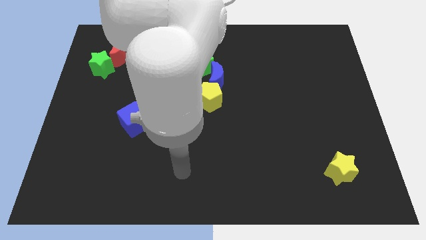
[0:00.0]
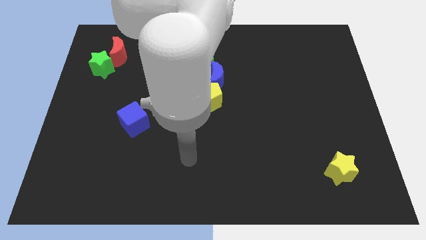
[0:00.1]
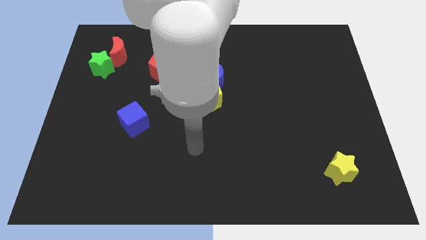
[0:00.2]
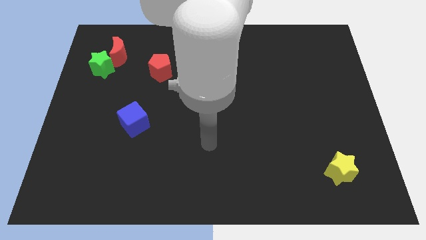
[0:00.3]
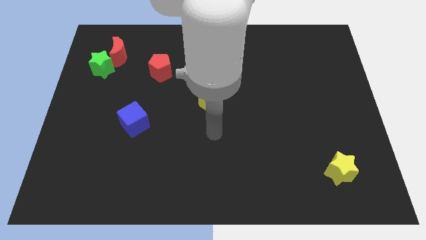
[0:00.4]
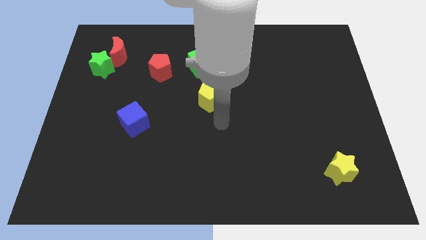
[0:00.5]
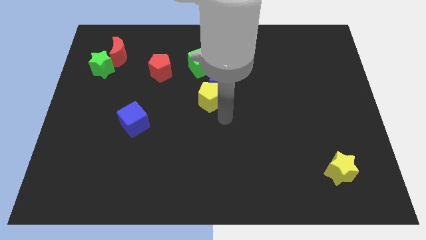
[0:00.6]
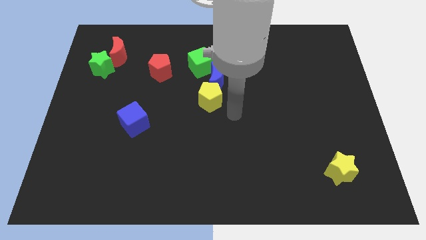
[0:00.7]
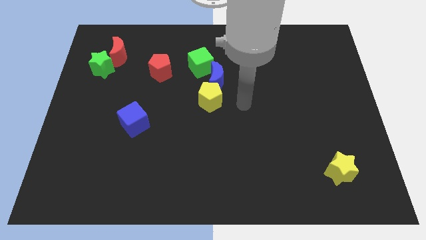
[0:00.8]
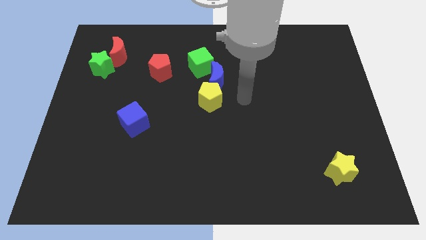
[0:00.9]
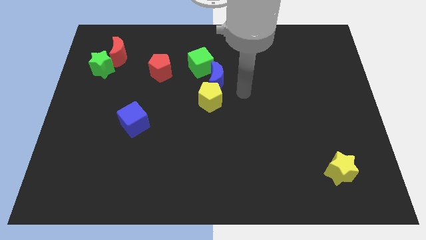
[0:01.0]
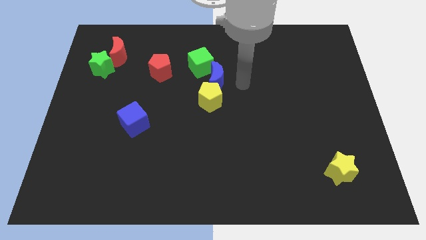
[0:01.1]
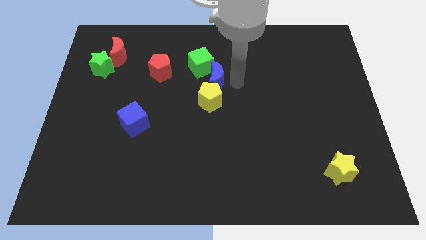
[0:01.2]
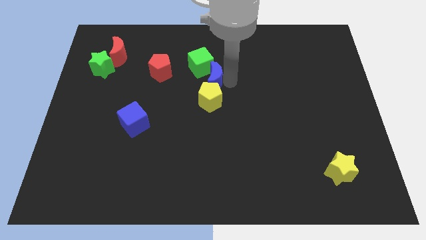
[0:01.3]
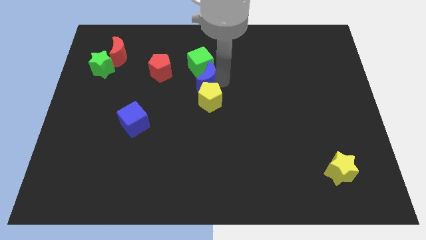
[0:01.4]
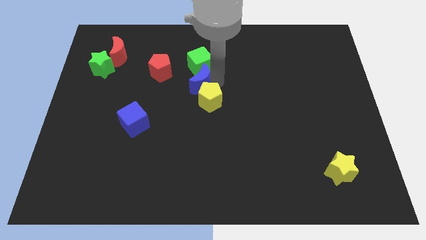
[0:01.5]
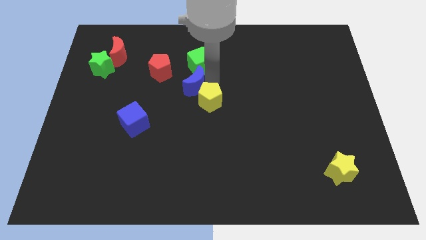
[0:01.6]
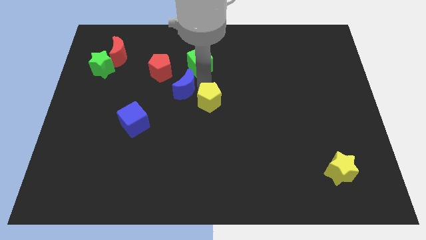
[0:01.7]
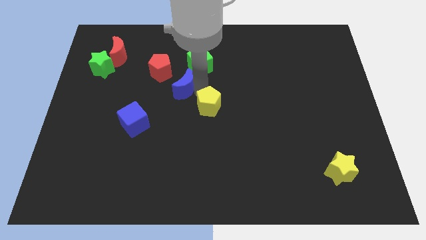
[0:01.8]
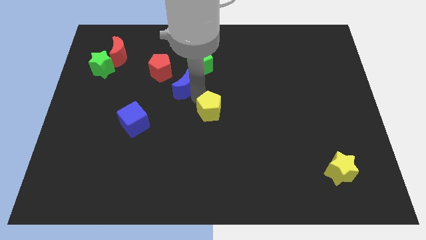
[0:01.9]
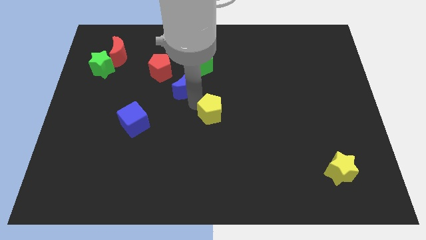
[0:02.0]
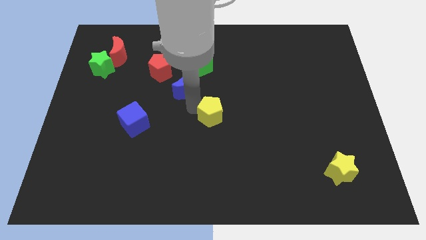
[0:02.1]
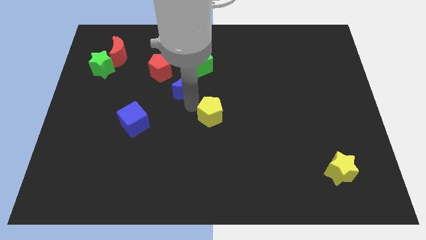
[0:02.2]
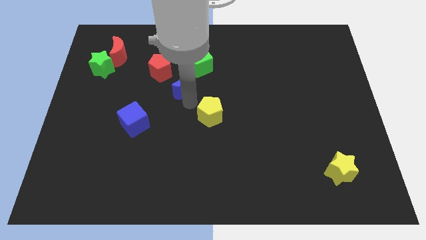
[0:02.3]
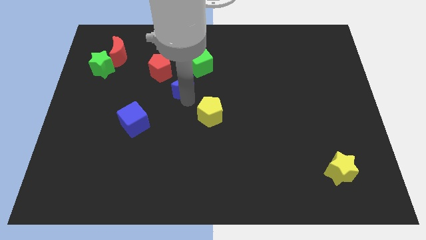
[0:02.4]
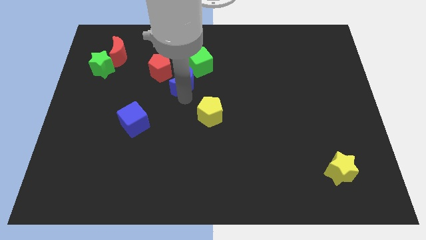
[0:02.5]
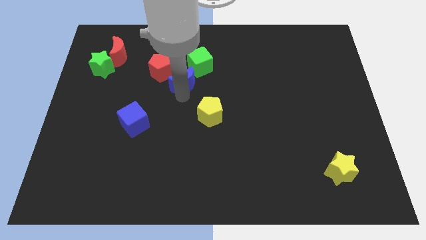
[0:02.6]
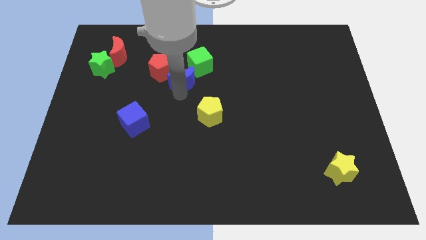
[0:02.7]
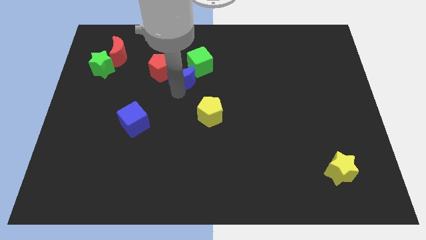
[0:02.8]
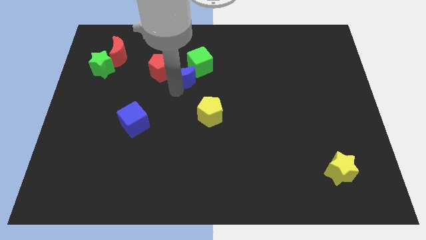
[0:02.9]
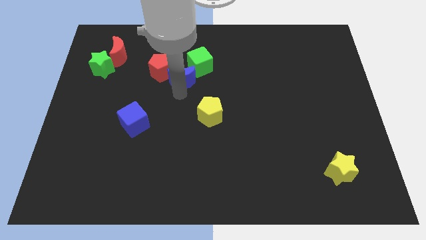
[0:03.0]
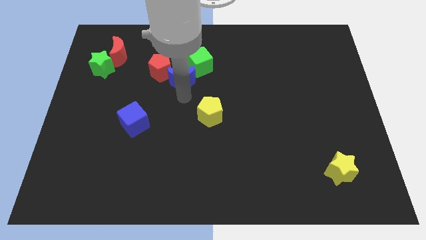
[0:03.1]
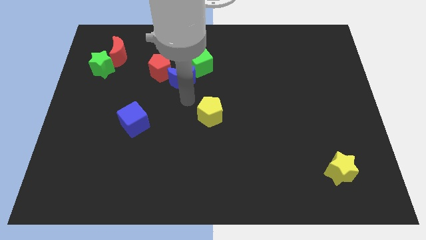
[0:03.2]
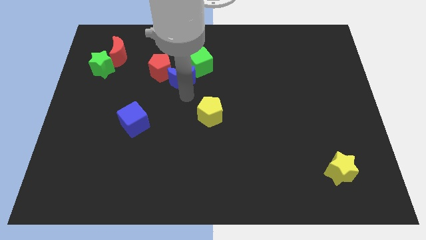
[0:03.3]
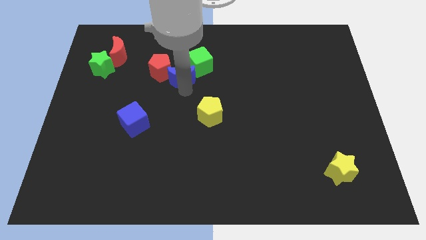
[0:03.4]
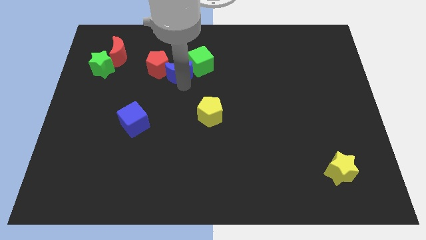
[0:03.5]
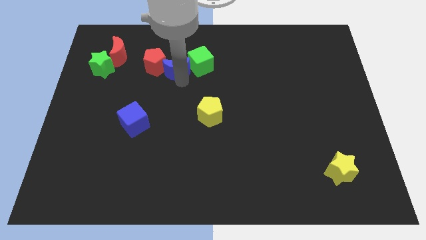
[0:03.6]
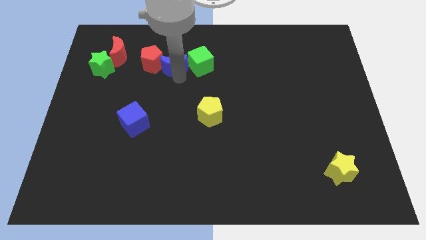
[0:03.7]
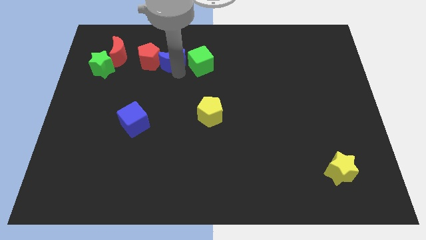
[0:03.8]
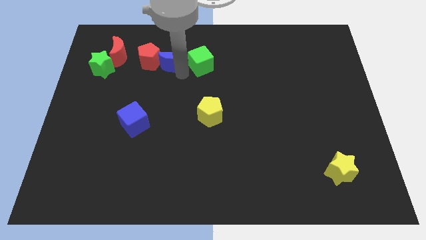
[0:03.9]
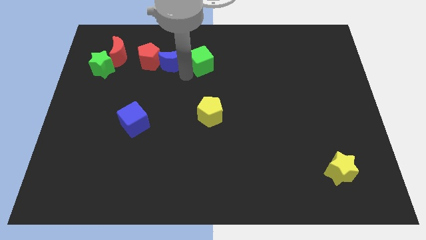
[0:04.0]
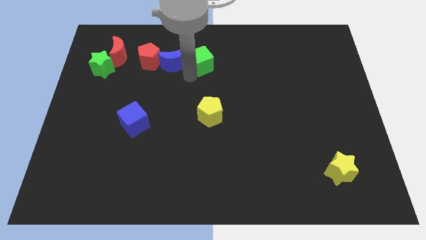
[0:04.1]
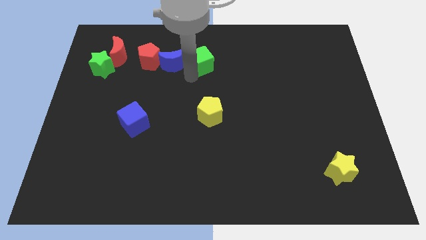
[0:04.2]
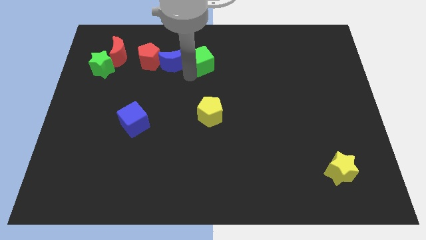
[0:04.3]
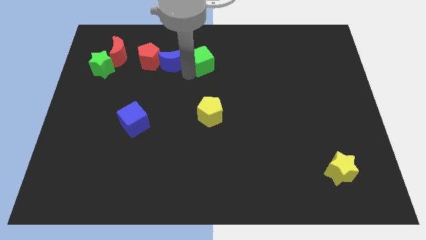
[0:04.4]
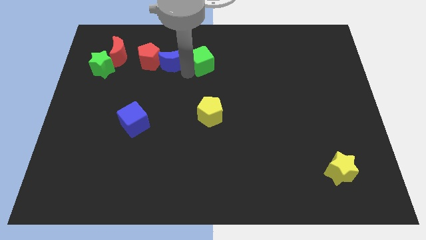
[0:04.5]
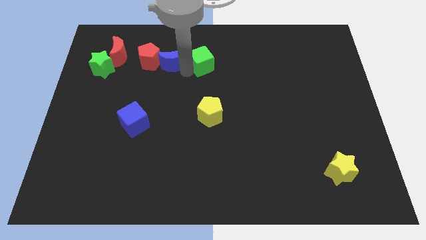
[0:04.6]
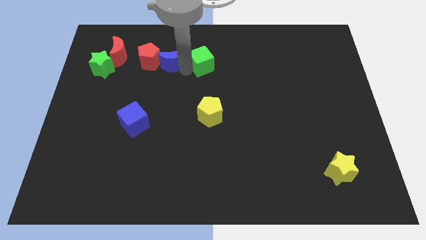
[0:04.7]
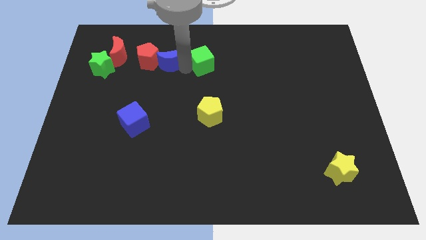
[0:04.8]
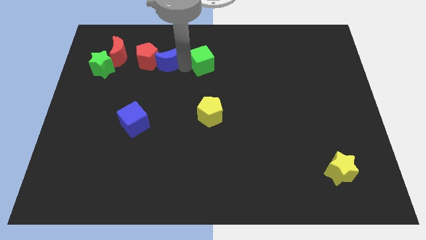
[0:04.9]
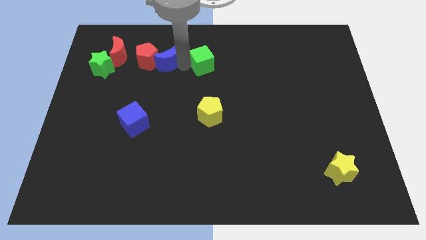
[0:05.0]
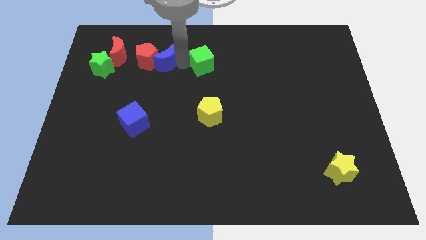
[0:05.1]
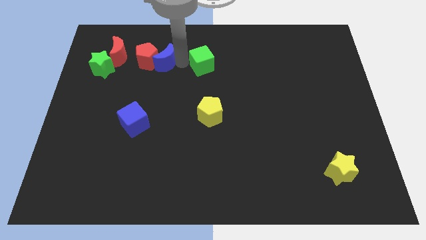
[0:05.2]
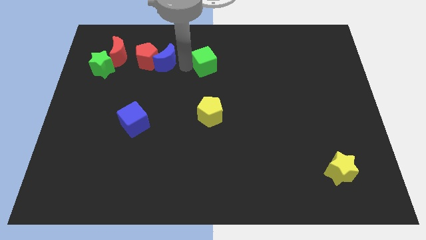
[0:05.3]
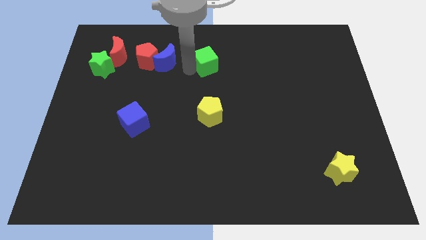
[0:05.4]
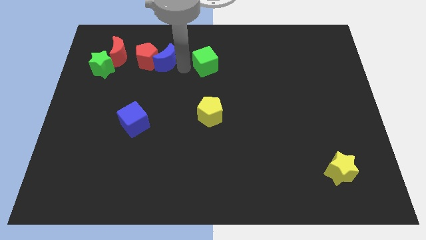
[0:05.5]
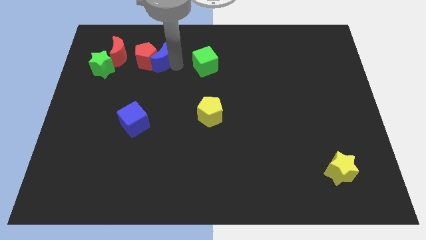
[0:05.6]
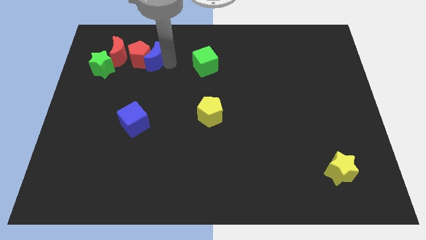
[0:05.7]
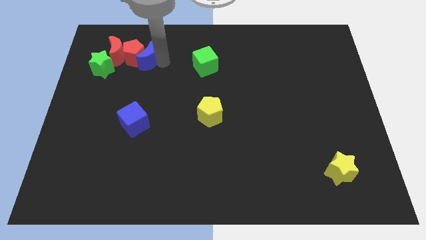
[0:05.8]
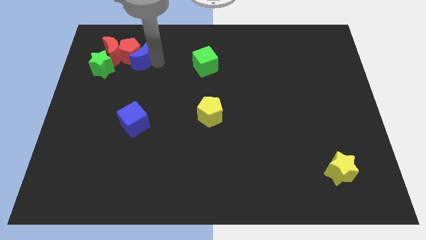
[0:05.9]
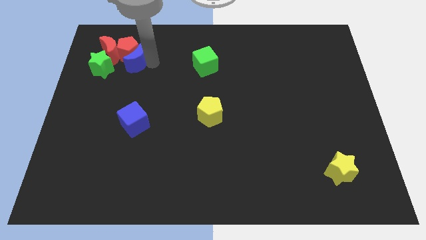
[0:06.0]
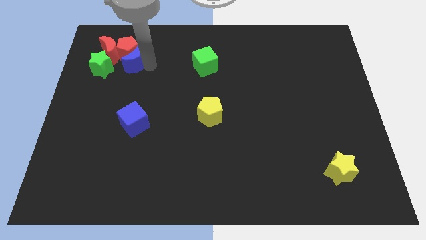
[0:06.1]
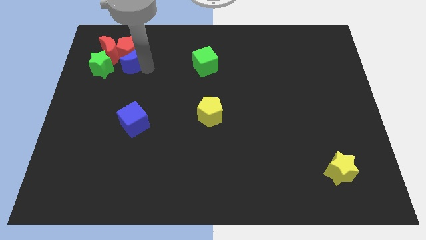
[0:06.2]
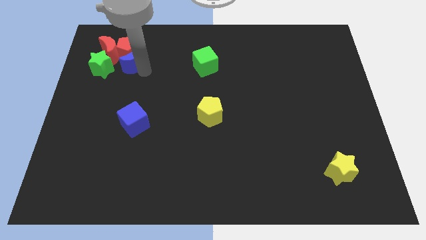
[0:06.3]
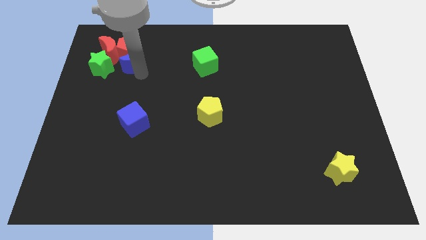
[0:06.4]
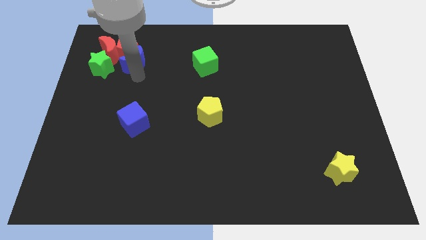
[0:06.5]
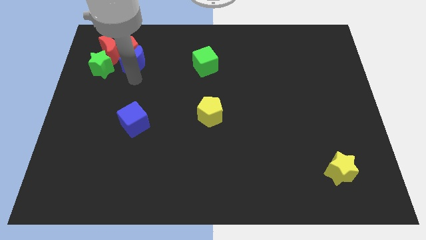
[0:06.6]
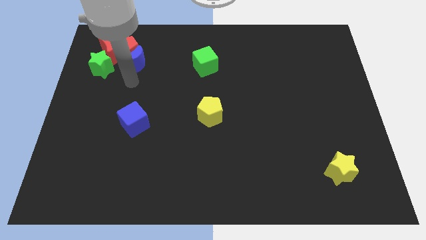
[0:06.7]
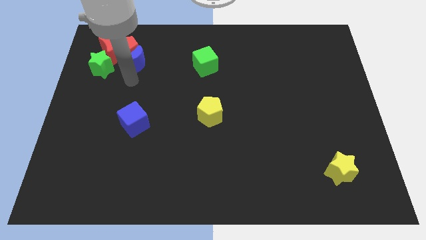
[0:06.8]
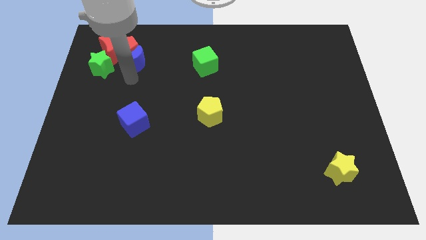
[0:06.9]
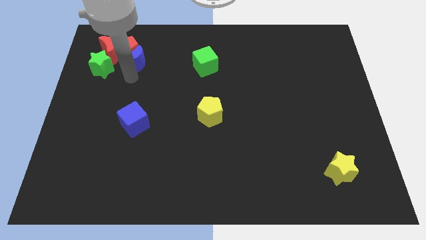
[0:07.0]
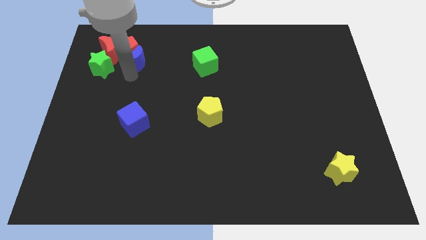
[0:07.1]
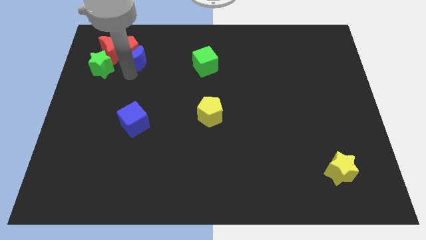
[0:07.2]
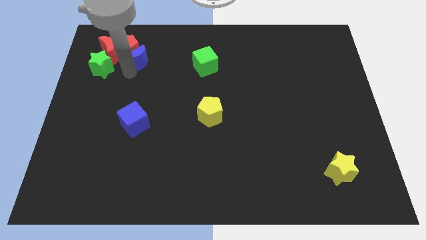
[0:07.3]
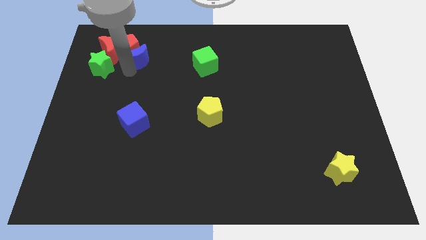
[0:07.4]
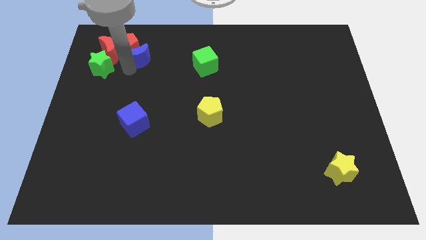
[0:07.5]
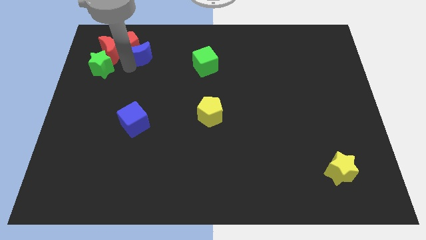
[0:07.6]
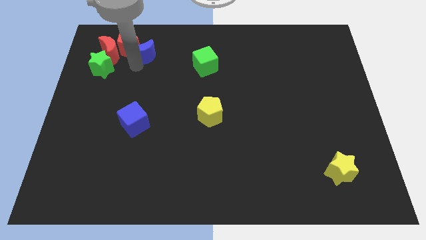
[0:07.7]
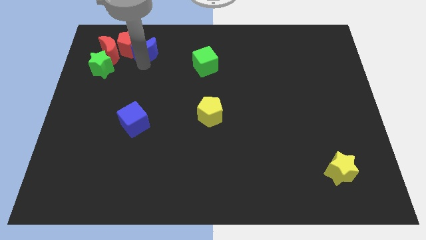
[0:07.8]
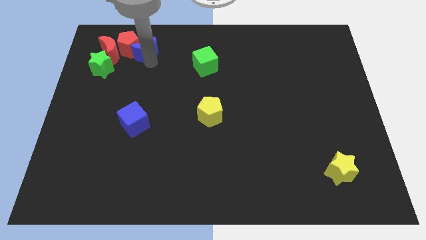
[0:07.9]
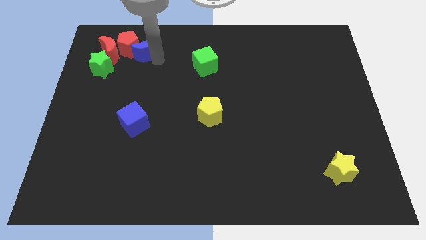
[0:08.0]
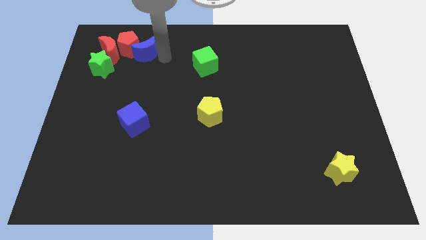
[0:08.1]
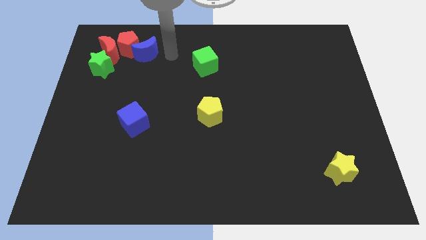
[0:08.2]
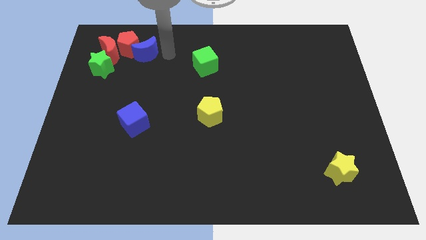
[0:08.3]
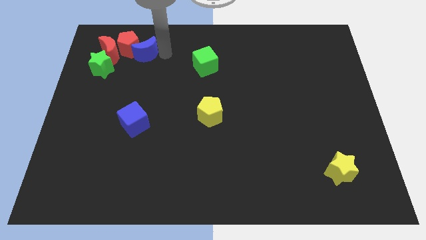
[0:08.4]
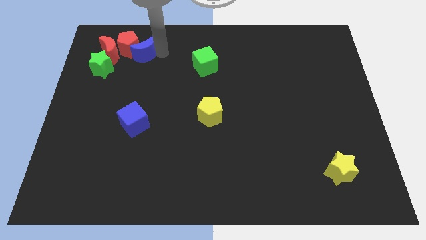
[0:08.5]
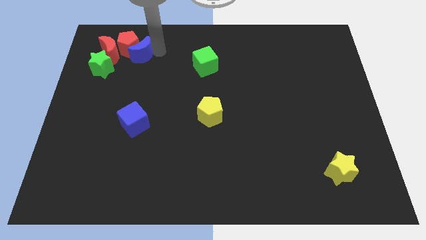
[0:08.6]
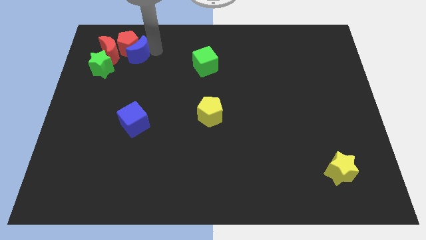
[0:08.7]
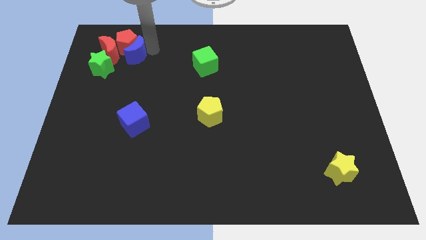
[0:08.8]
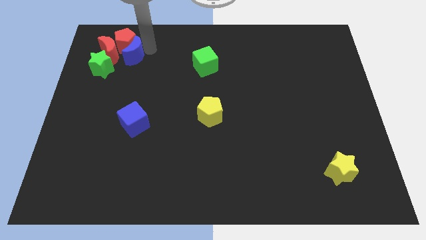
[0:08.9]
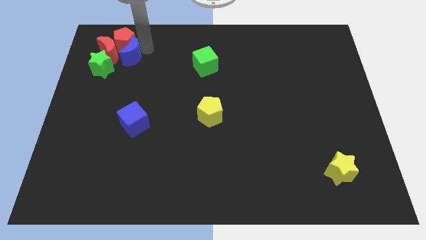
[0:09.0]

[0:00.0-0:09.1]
put the blue moon close to the red moon
